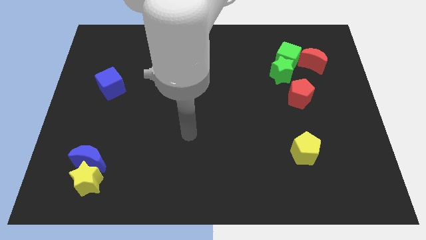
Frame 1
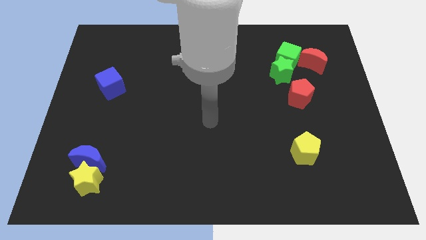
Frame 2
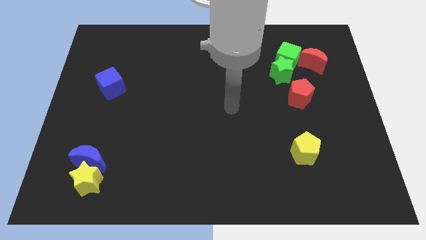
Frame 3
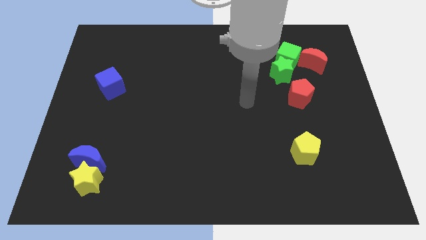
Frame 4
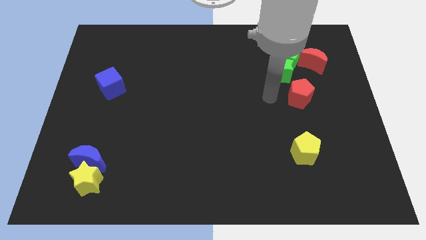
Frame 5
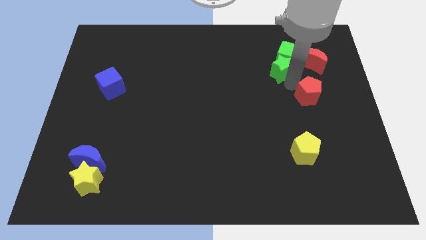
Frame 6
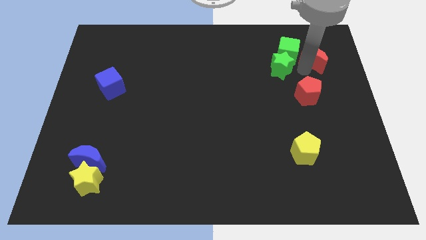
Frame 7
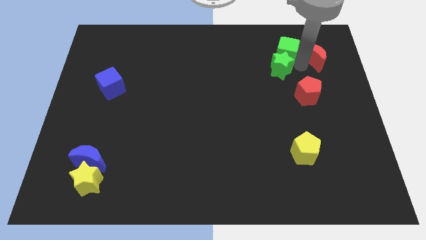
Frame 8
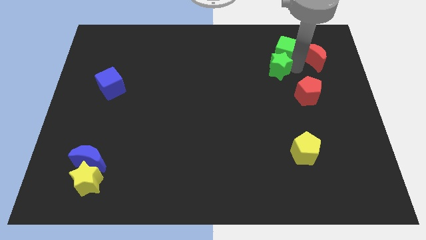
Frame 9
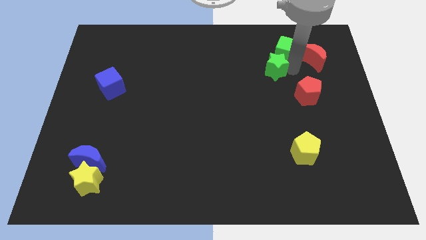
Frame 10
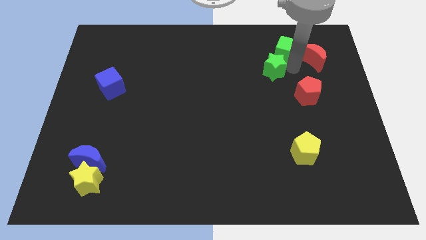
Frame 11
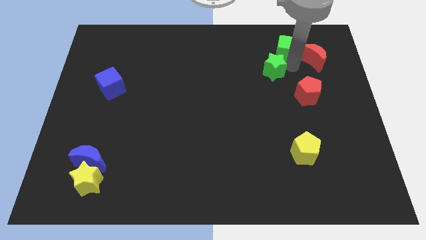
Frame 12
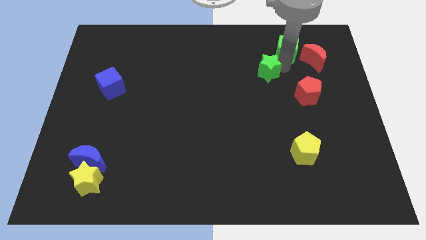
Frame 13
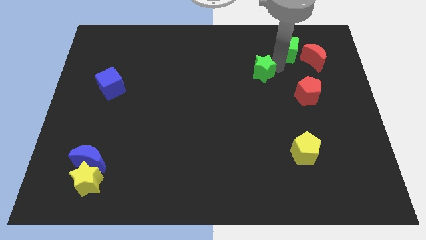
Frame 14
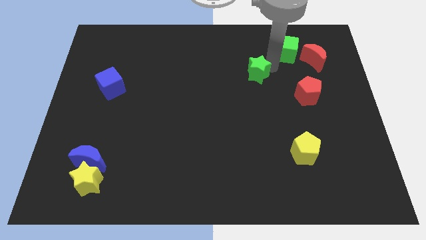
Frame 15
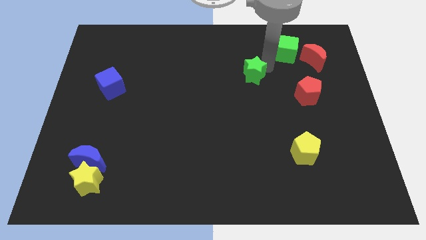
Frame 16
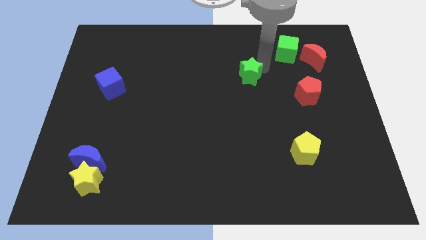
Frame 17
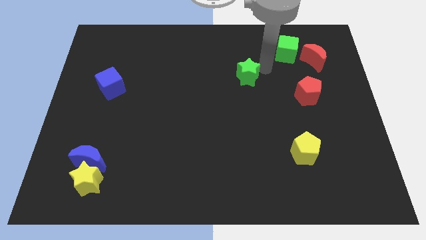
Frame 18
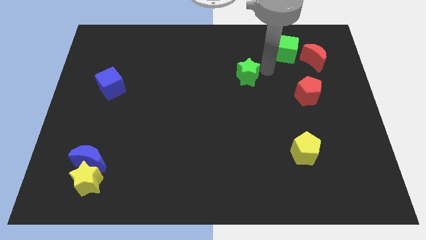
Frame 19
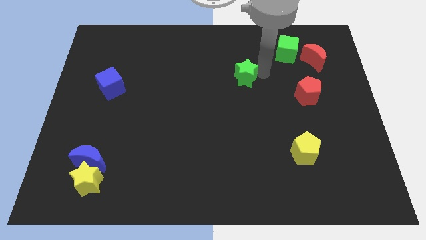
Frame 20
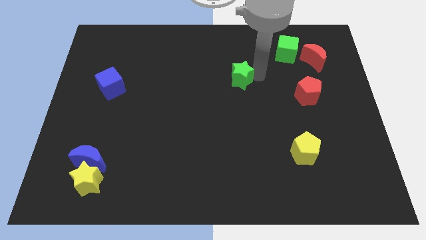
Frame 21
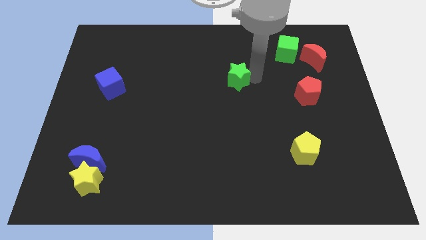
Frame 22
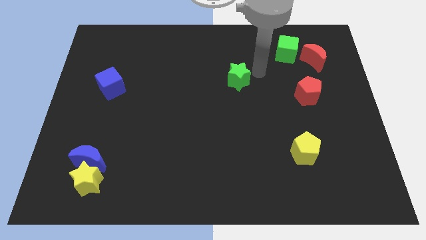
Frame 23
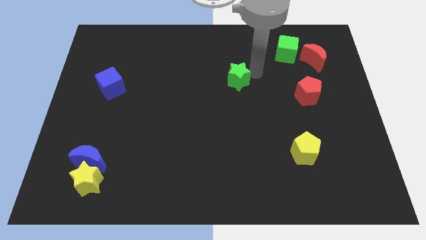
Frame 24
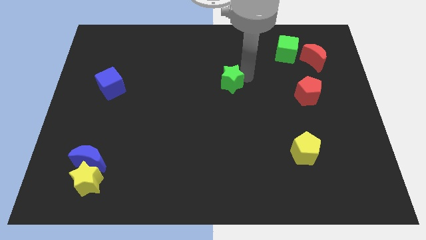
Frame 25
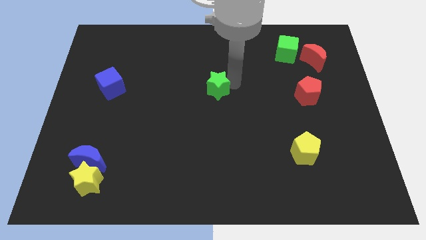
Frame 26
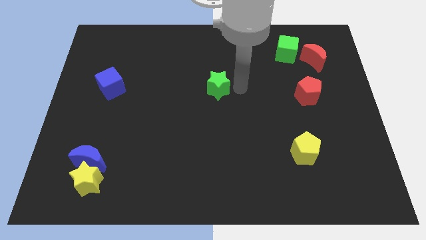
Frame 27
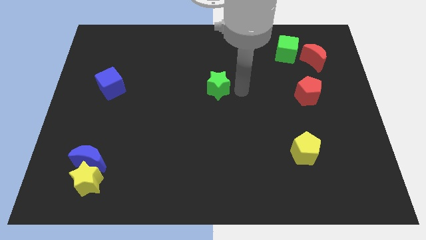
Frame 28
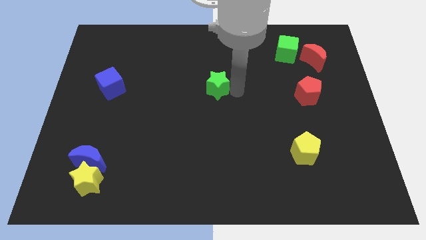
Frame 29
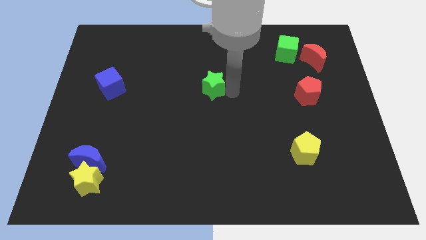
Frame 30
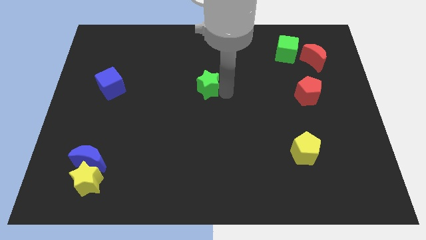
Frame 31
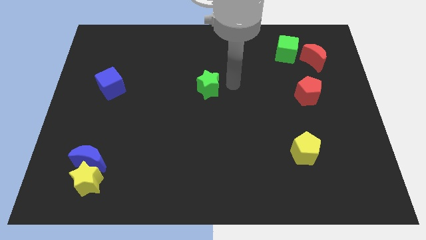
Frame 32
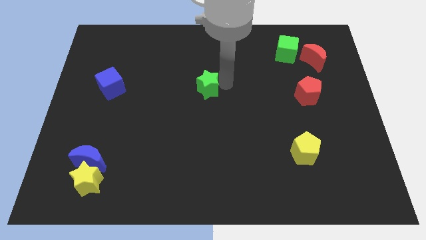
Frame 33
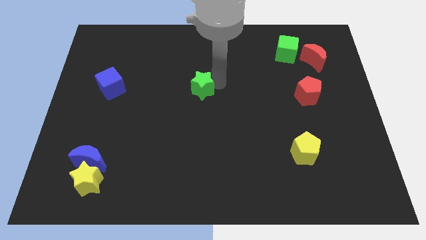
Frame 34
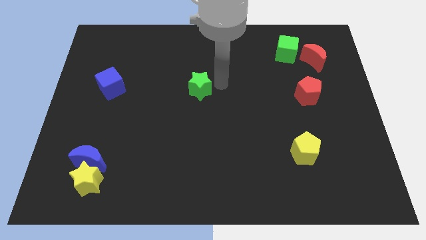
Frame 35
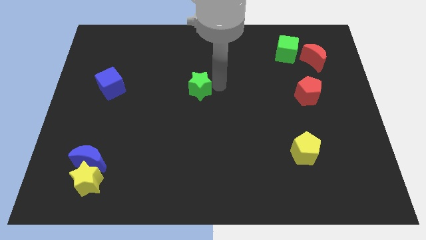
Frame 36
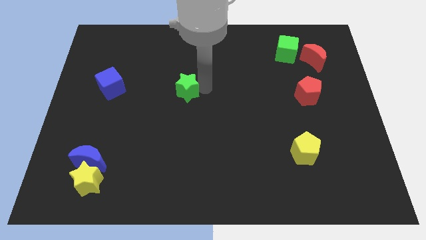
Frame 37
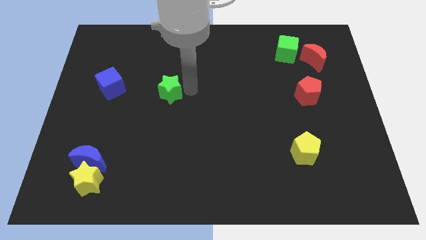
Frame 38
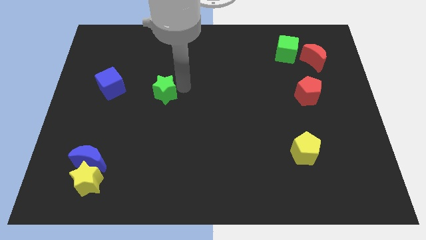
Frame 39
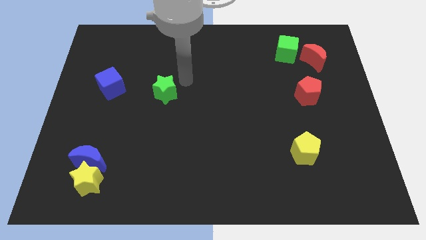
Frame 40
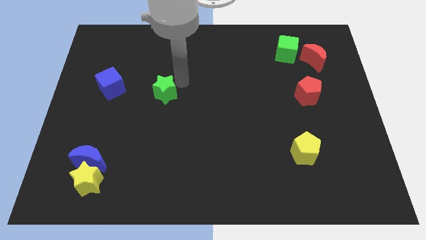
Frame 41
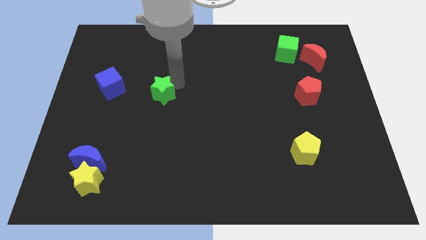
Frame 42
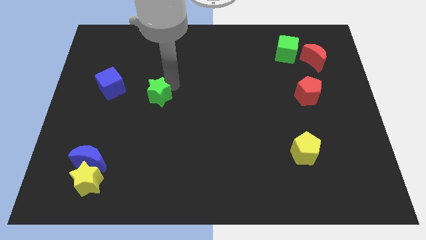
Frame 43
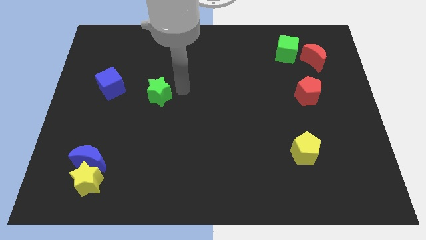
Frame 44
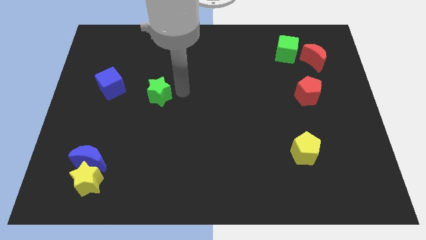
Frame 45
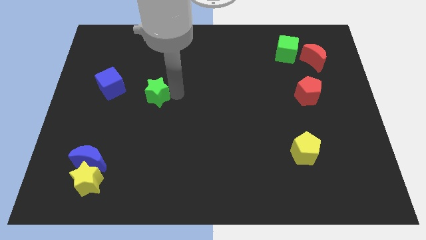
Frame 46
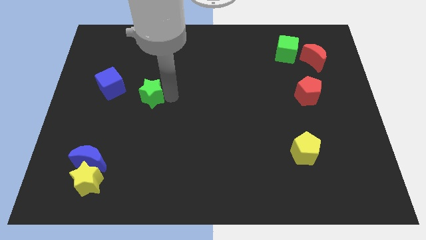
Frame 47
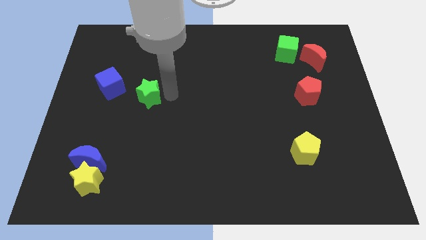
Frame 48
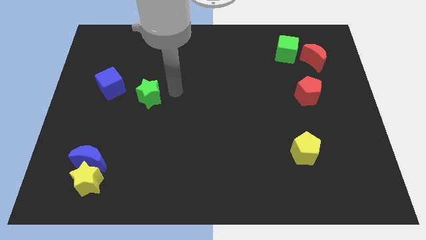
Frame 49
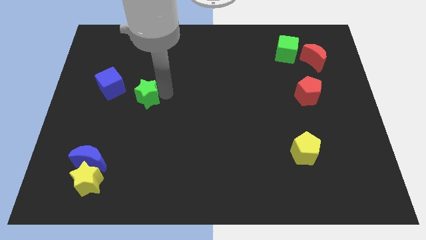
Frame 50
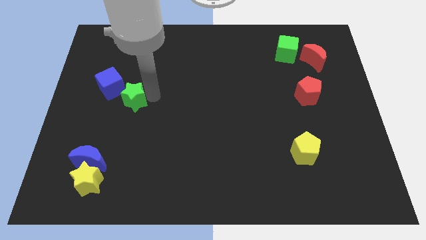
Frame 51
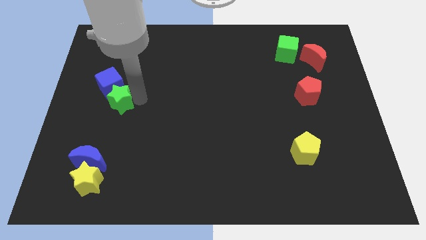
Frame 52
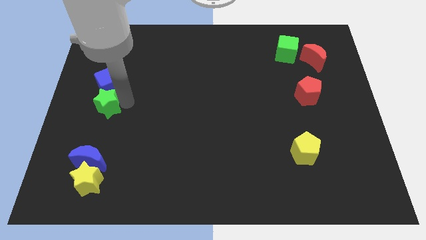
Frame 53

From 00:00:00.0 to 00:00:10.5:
move the green star to the left side of the board
